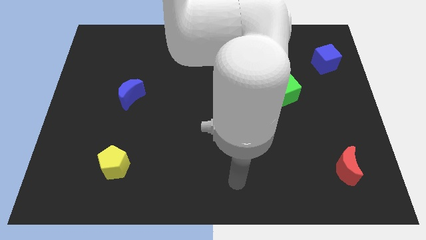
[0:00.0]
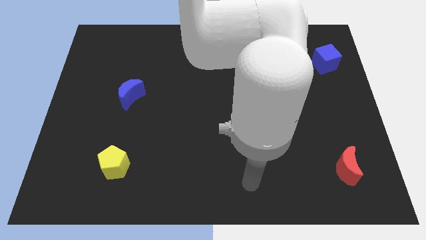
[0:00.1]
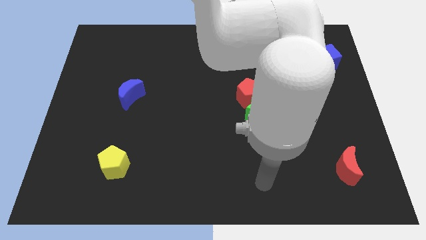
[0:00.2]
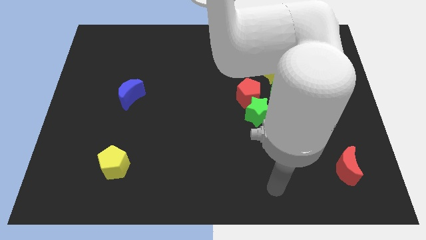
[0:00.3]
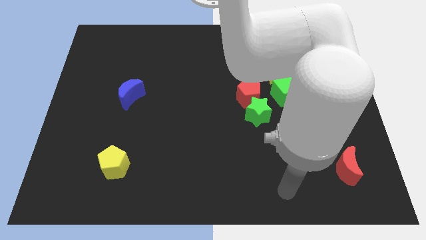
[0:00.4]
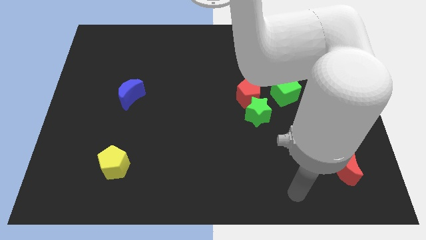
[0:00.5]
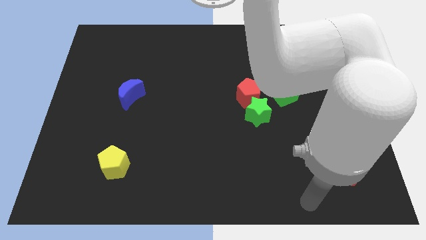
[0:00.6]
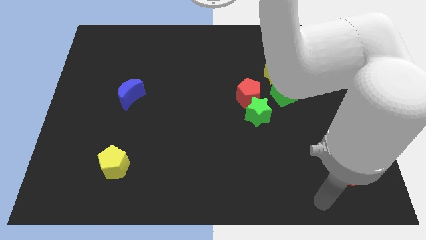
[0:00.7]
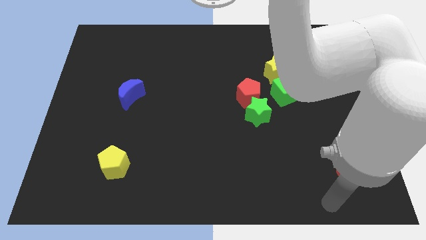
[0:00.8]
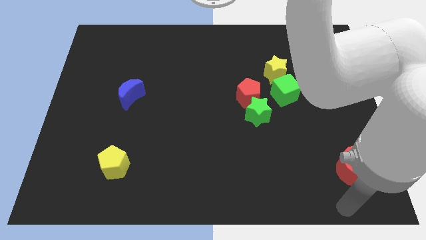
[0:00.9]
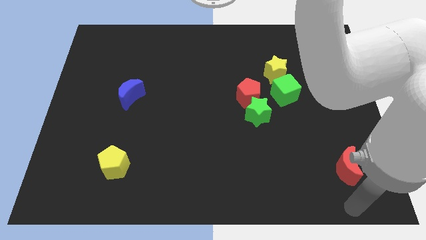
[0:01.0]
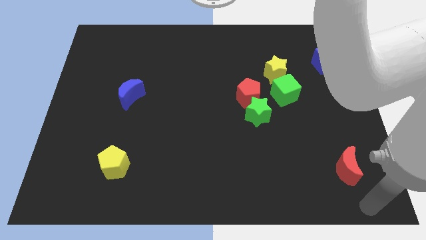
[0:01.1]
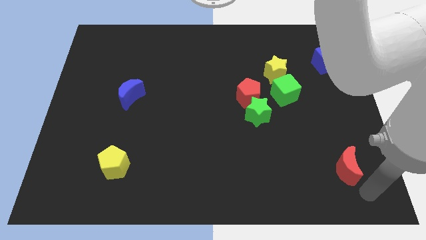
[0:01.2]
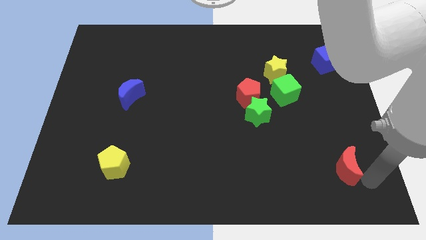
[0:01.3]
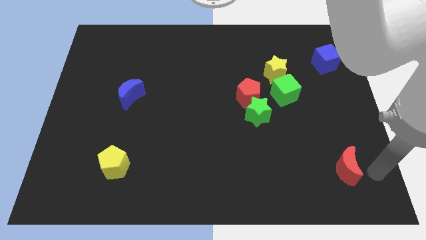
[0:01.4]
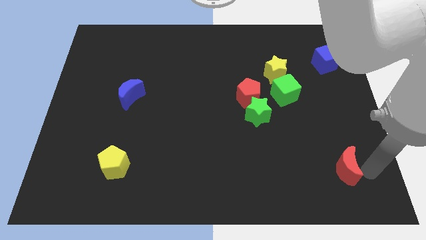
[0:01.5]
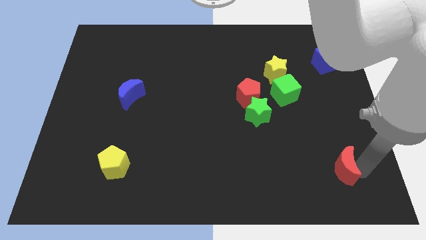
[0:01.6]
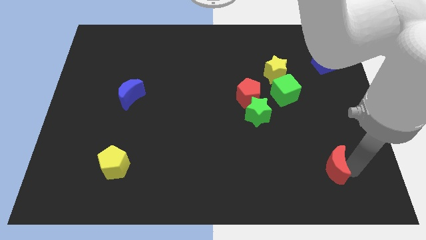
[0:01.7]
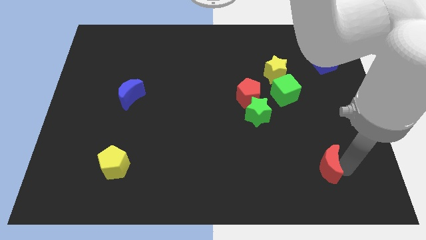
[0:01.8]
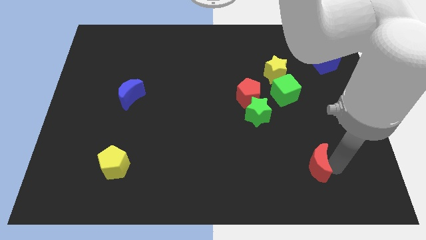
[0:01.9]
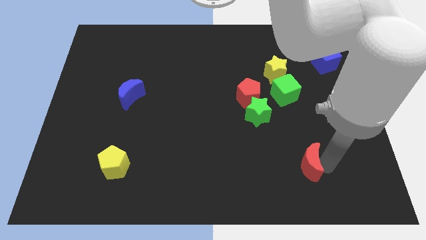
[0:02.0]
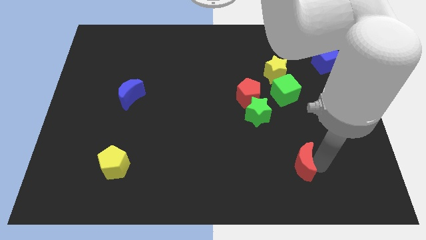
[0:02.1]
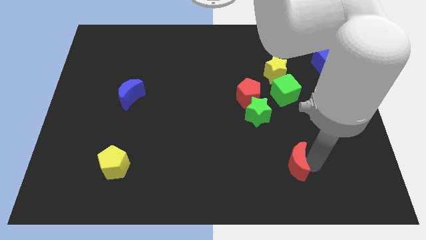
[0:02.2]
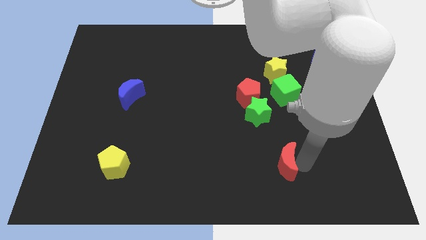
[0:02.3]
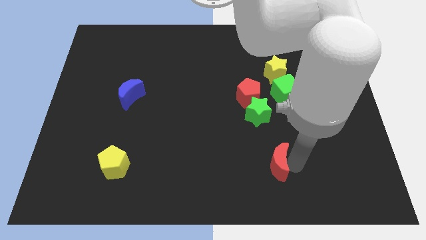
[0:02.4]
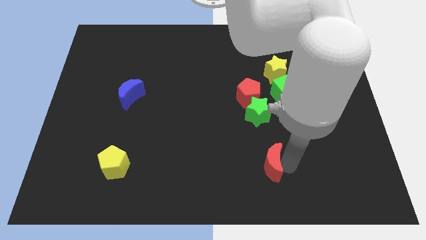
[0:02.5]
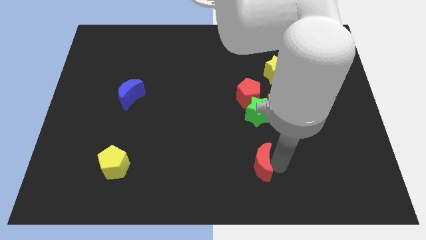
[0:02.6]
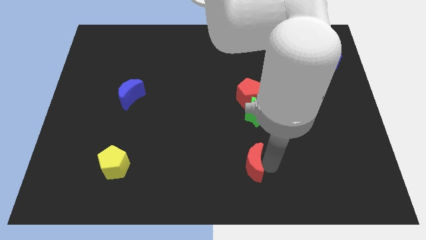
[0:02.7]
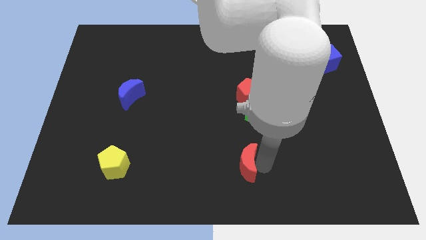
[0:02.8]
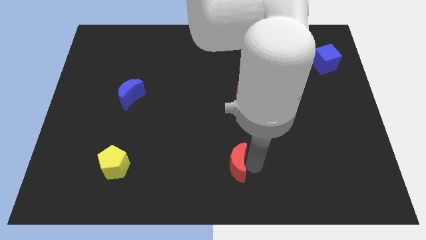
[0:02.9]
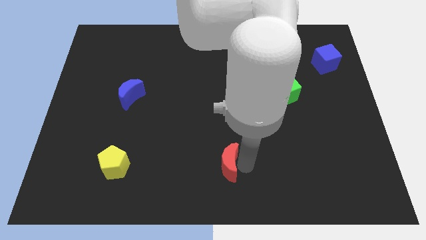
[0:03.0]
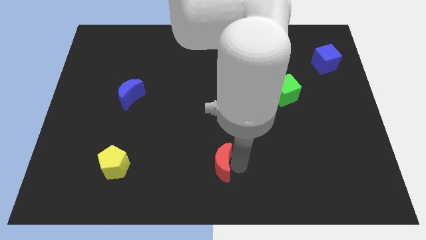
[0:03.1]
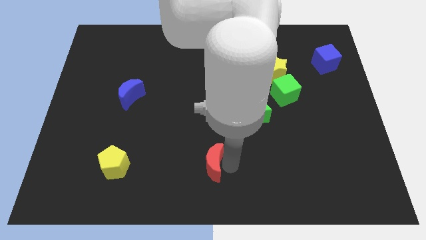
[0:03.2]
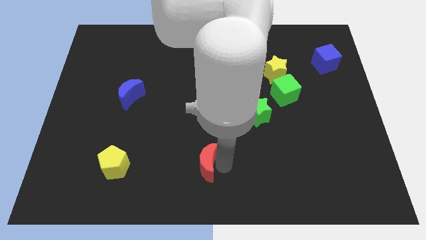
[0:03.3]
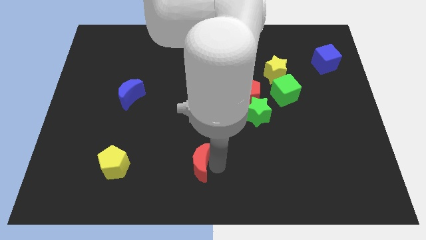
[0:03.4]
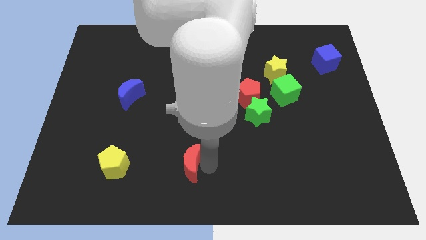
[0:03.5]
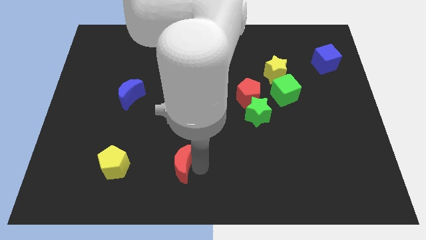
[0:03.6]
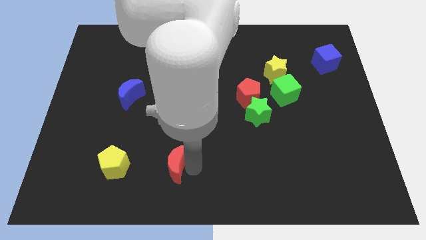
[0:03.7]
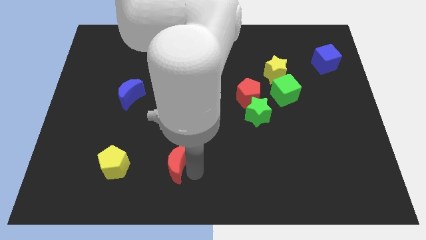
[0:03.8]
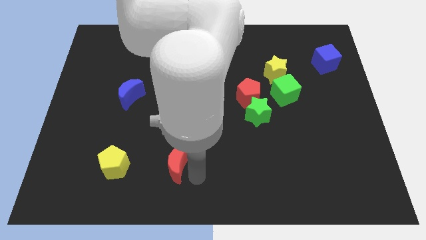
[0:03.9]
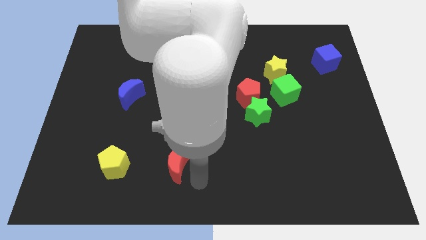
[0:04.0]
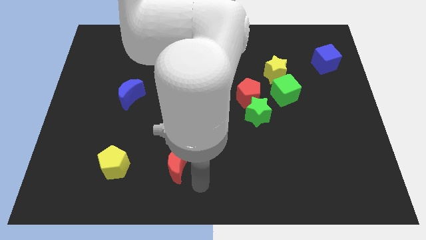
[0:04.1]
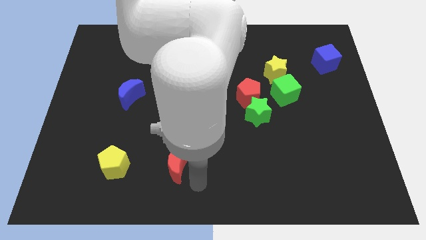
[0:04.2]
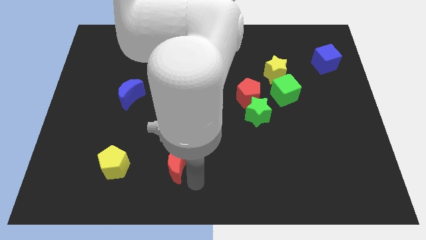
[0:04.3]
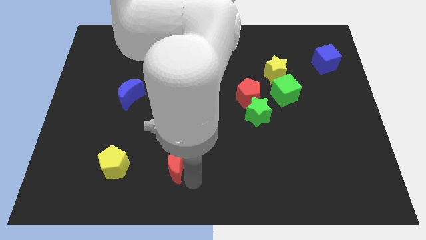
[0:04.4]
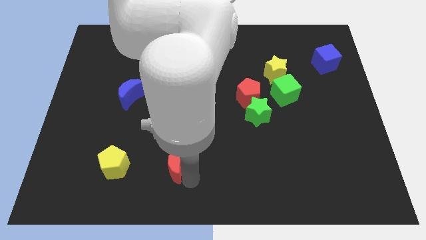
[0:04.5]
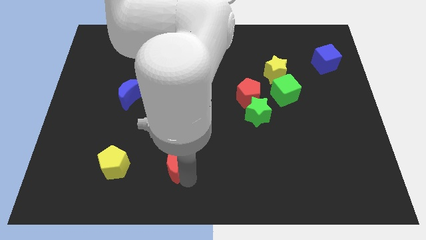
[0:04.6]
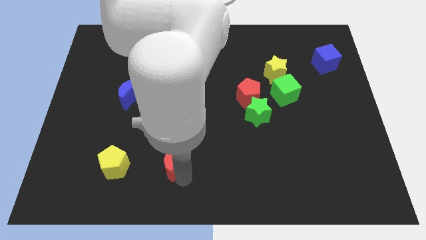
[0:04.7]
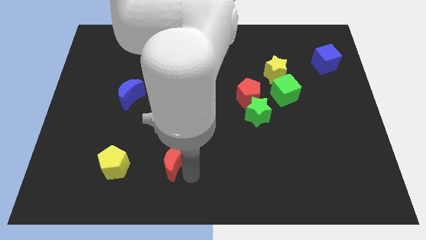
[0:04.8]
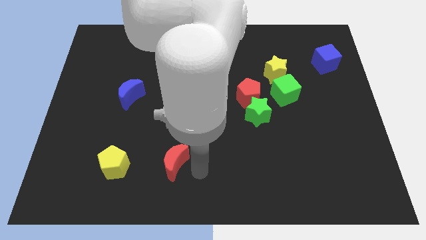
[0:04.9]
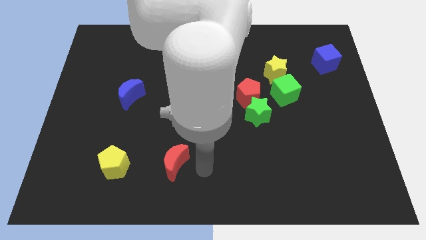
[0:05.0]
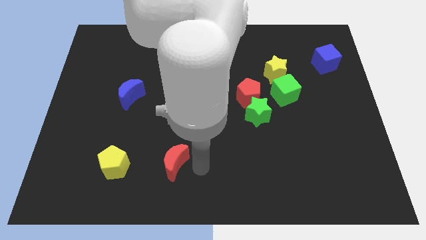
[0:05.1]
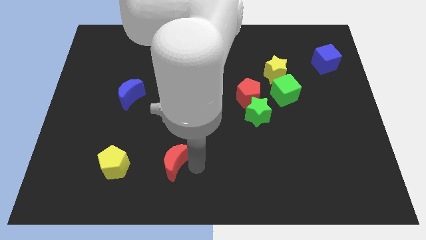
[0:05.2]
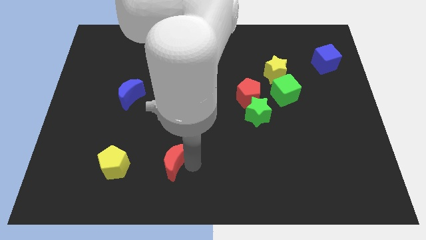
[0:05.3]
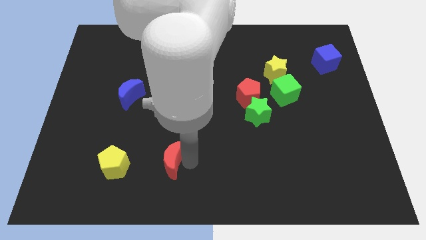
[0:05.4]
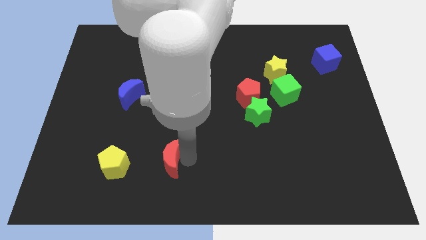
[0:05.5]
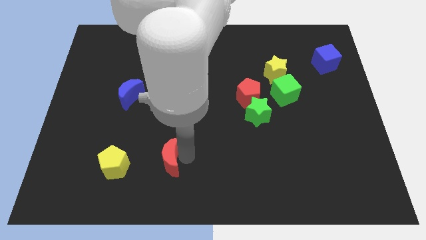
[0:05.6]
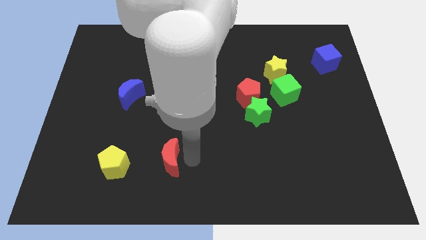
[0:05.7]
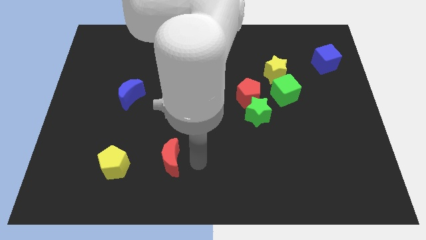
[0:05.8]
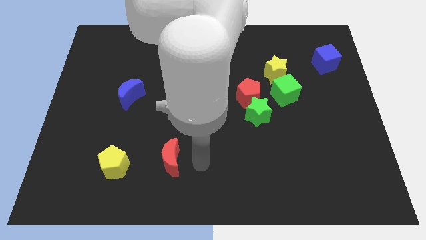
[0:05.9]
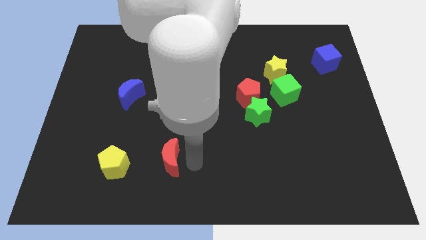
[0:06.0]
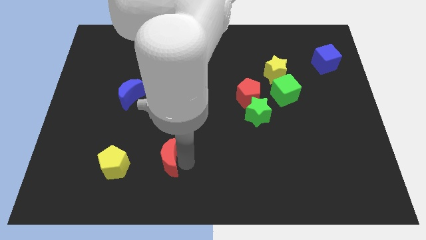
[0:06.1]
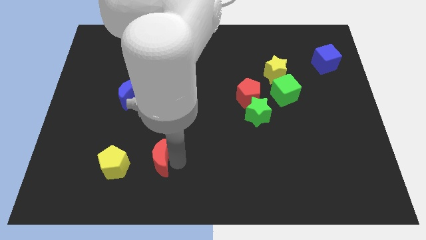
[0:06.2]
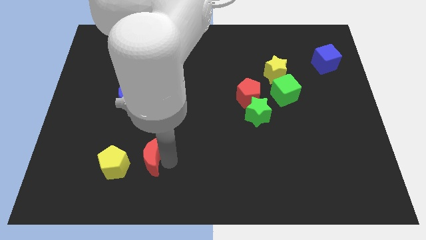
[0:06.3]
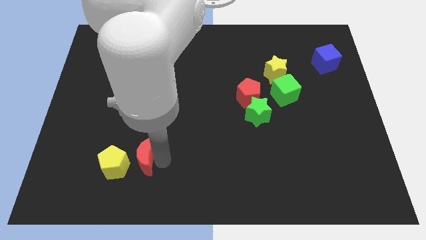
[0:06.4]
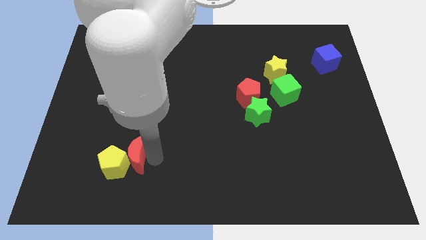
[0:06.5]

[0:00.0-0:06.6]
put the red moon towards the yellow pentagon

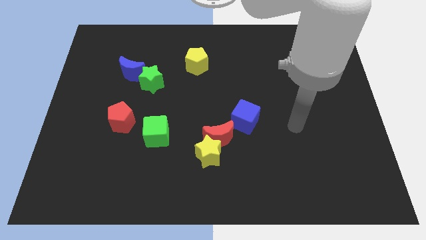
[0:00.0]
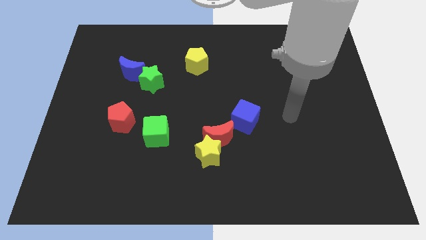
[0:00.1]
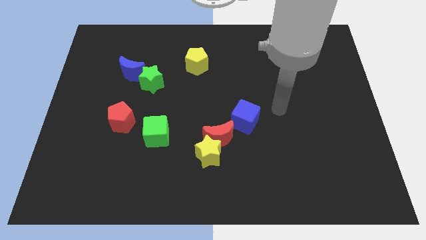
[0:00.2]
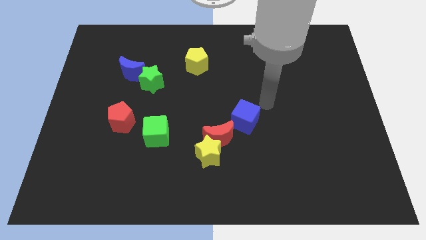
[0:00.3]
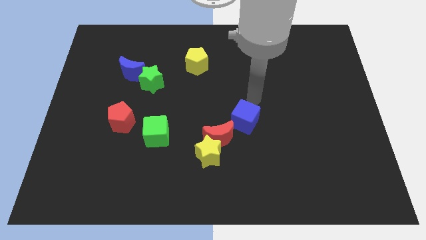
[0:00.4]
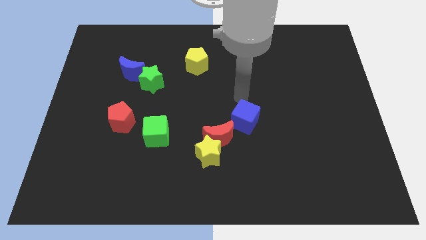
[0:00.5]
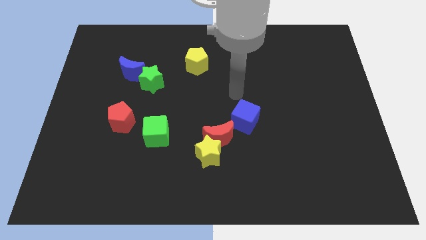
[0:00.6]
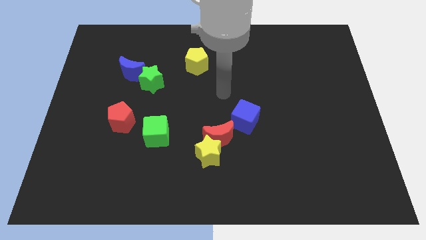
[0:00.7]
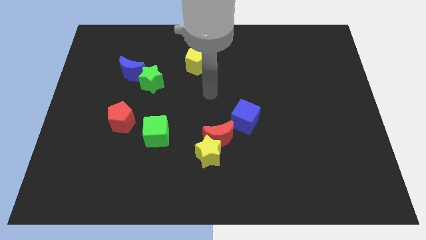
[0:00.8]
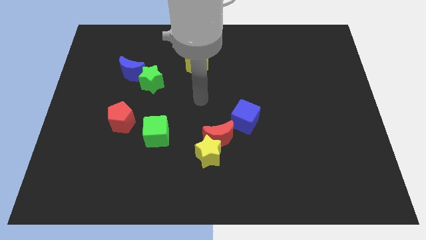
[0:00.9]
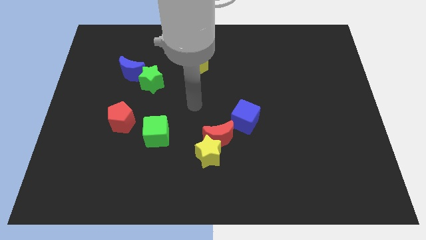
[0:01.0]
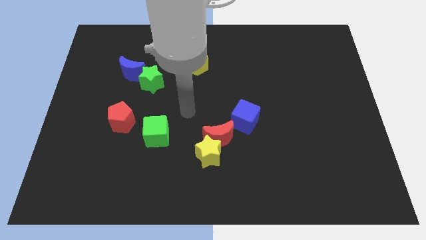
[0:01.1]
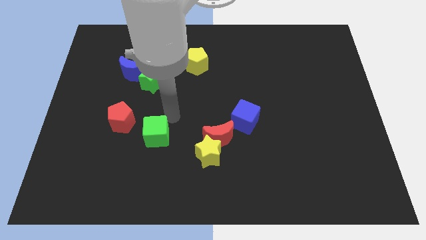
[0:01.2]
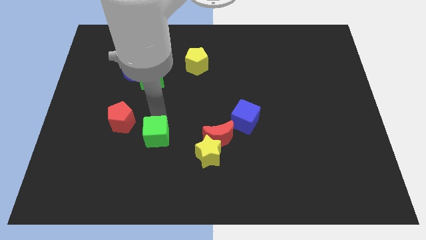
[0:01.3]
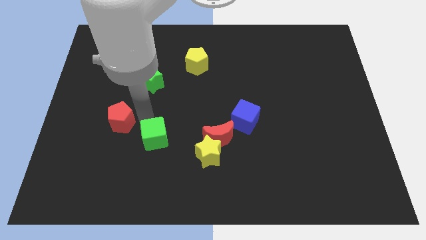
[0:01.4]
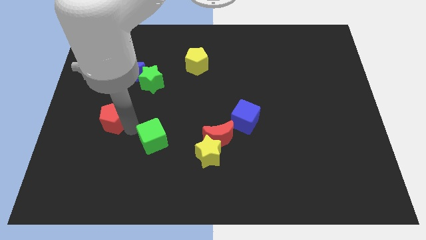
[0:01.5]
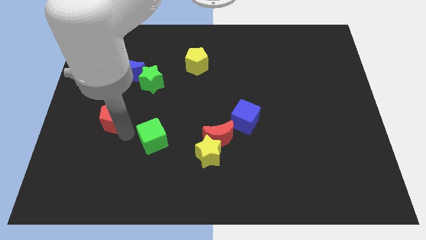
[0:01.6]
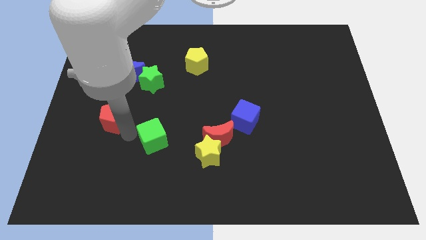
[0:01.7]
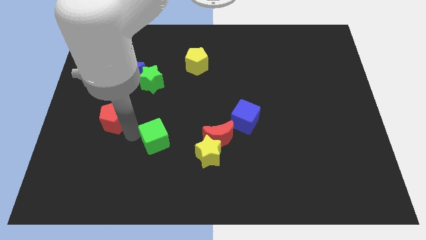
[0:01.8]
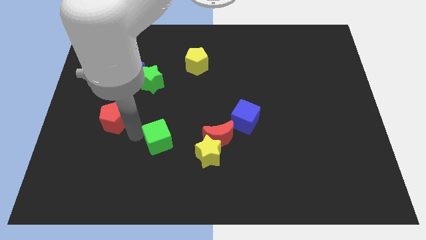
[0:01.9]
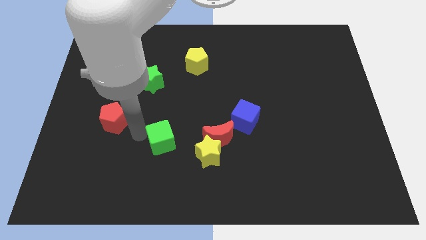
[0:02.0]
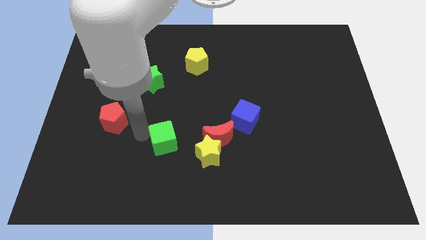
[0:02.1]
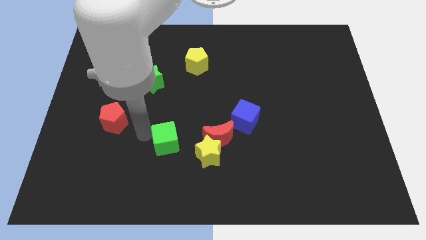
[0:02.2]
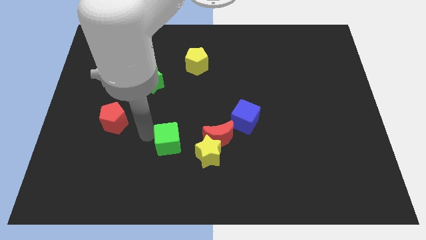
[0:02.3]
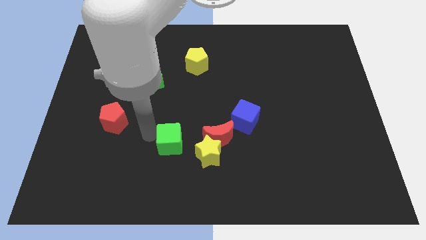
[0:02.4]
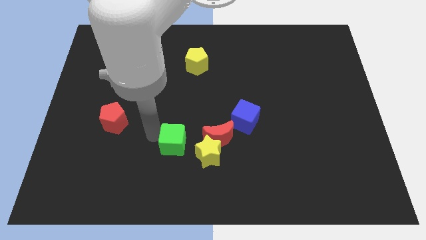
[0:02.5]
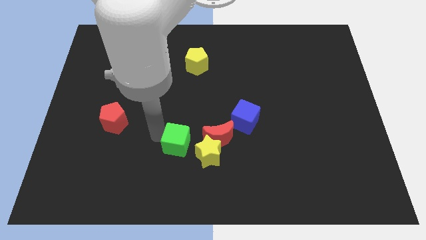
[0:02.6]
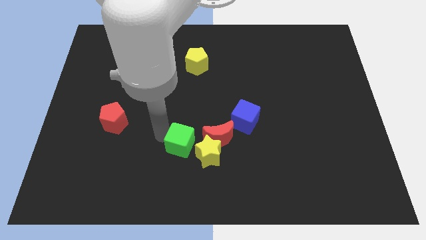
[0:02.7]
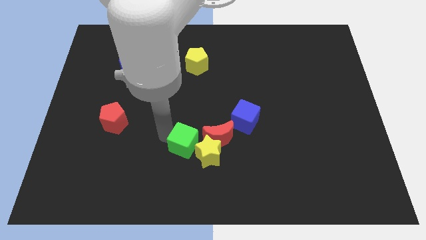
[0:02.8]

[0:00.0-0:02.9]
move the green cube close to the yellow star
